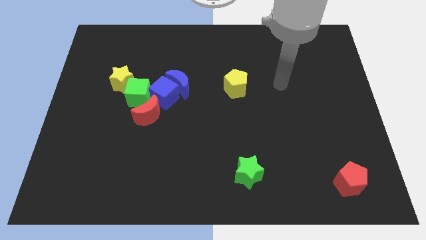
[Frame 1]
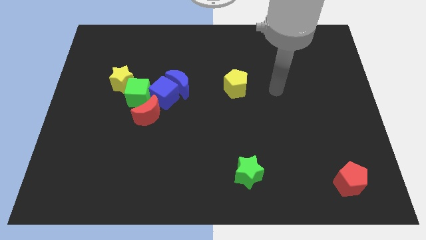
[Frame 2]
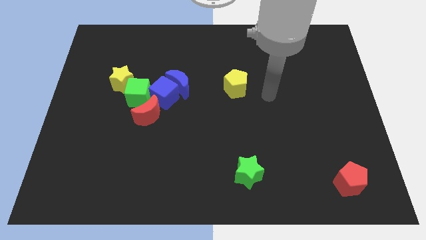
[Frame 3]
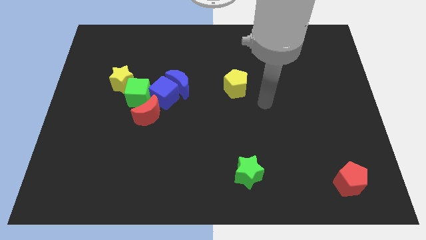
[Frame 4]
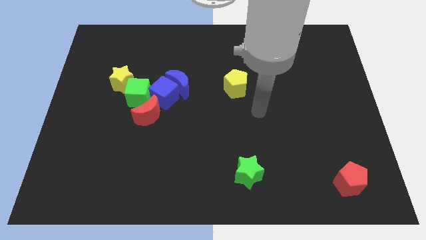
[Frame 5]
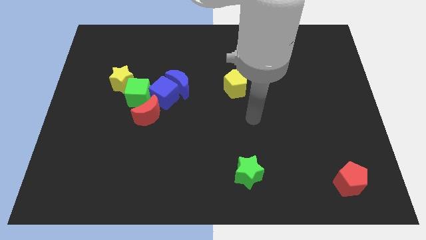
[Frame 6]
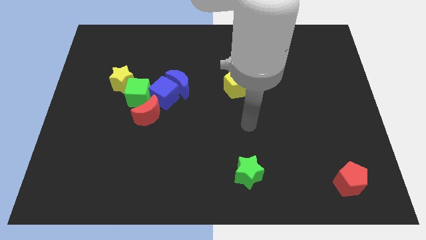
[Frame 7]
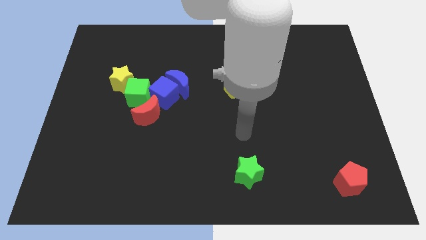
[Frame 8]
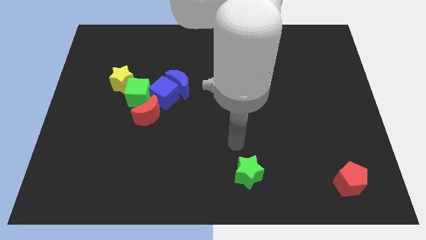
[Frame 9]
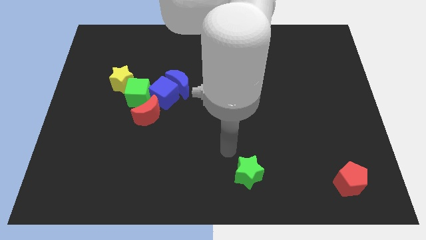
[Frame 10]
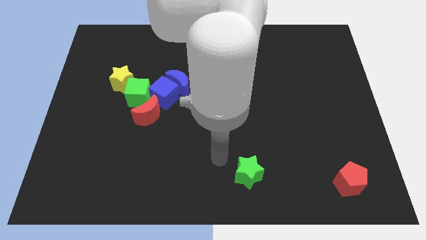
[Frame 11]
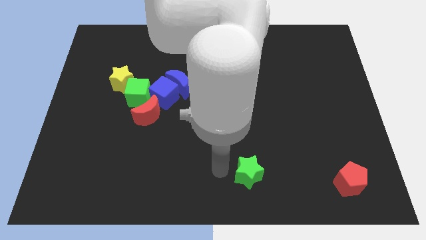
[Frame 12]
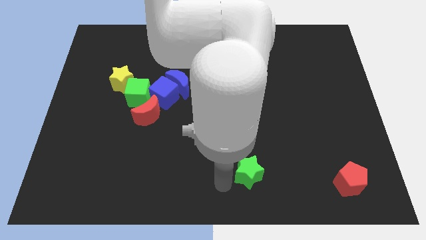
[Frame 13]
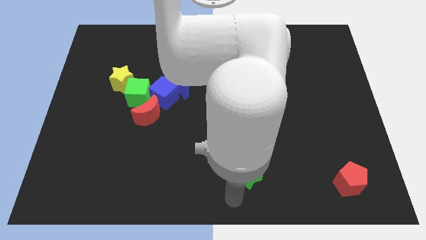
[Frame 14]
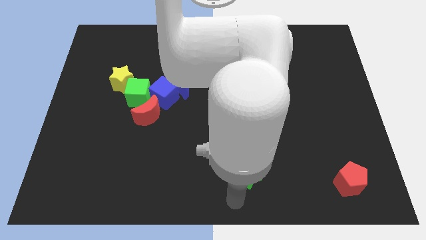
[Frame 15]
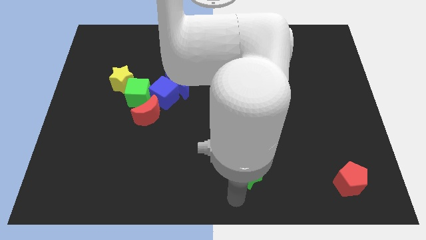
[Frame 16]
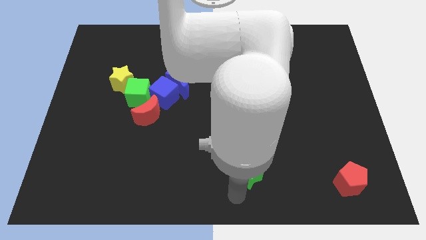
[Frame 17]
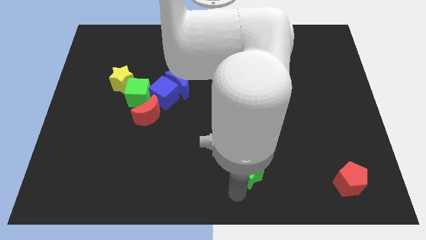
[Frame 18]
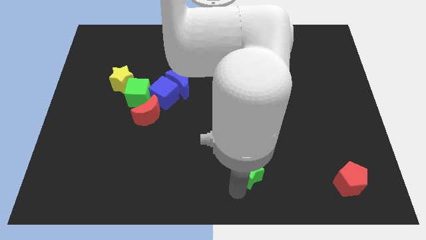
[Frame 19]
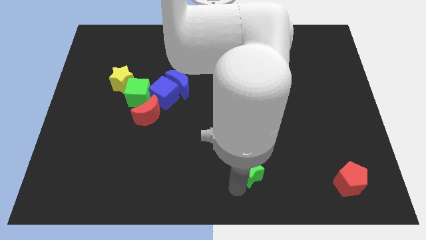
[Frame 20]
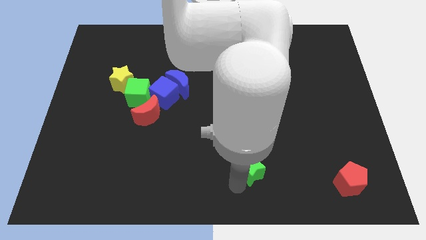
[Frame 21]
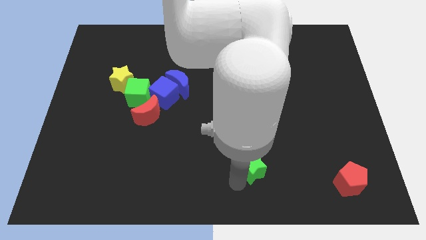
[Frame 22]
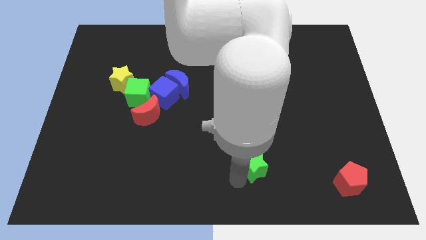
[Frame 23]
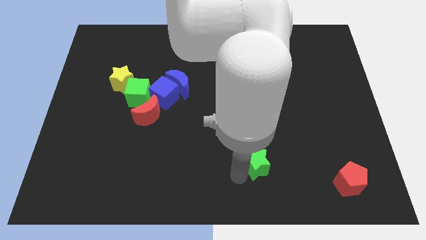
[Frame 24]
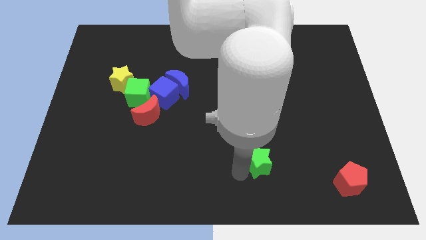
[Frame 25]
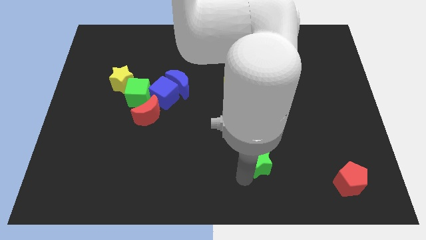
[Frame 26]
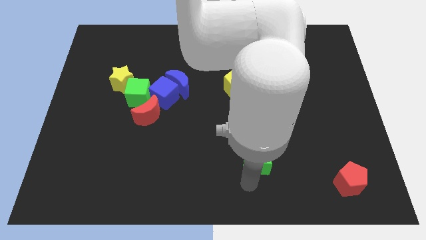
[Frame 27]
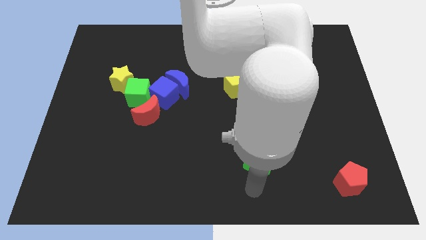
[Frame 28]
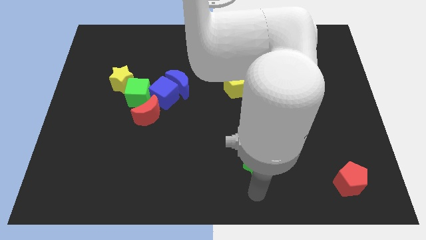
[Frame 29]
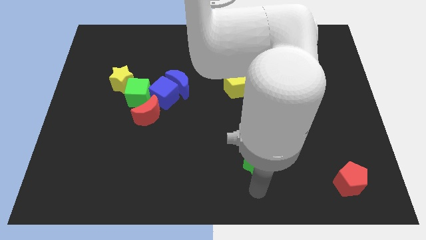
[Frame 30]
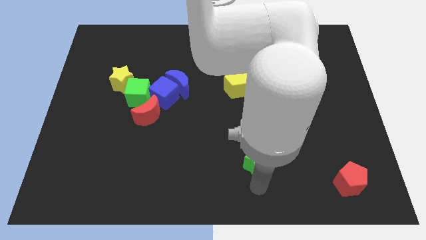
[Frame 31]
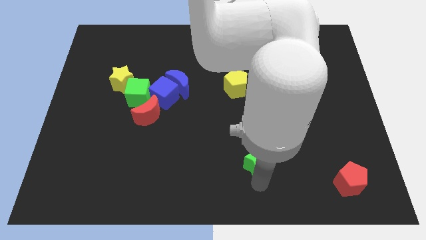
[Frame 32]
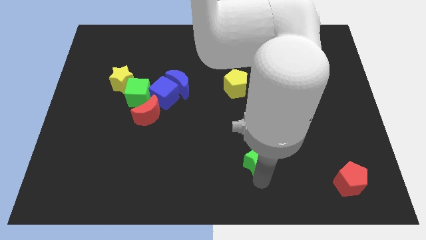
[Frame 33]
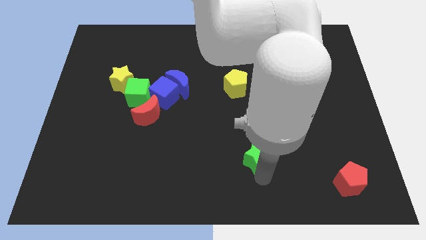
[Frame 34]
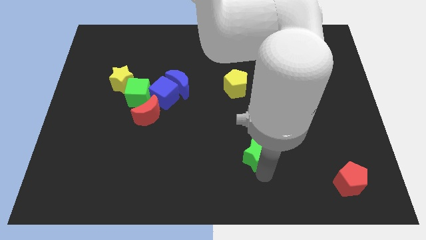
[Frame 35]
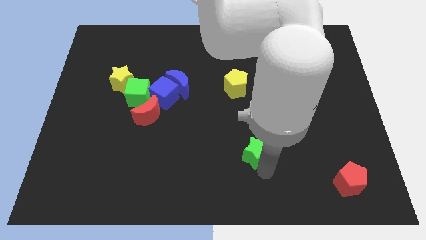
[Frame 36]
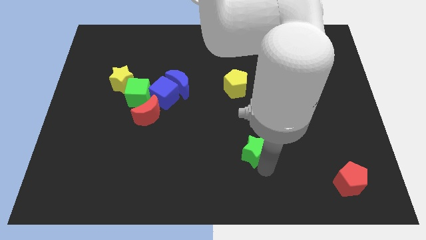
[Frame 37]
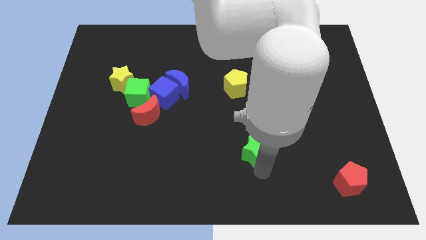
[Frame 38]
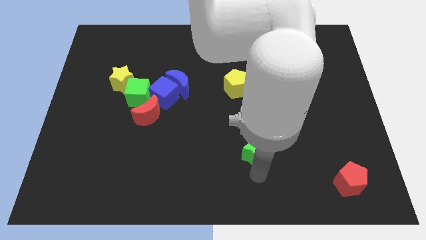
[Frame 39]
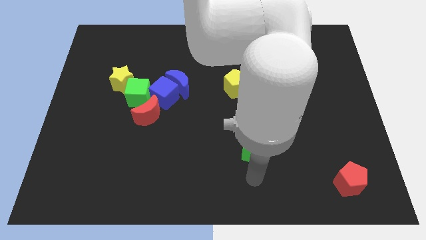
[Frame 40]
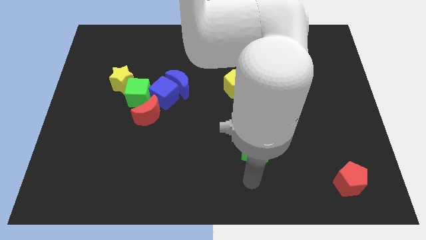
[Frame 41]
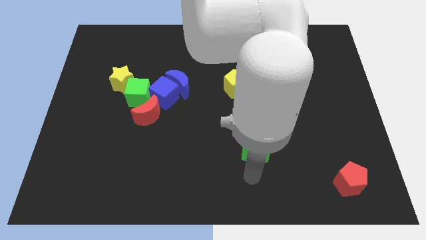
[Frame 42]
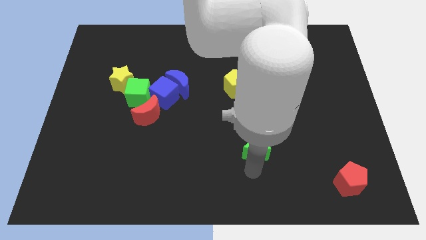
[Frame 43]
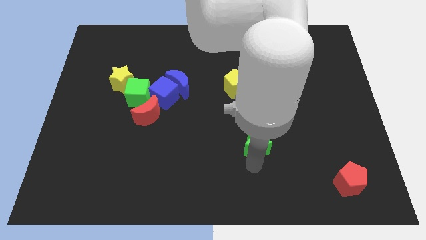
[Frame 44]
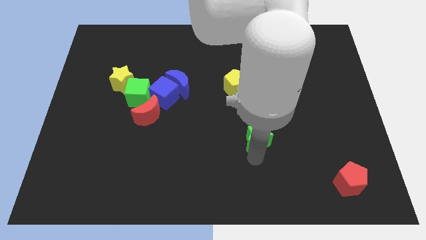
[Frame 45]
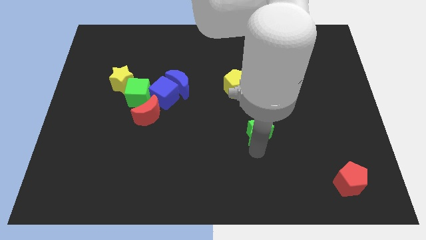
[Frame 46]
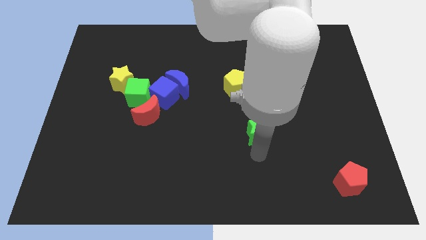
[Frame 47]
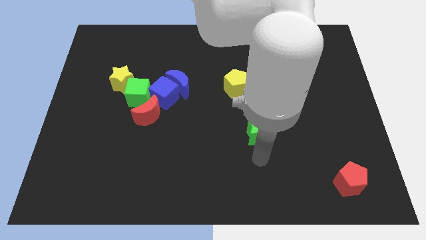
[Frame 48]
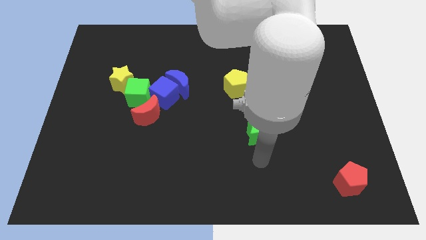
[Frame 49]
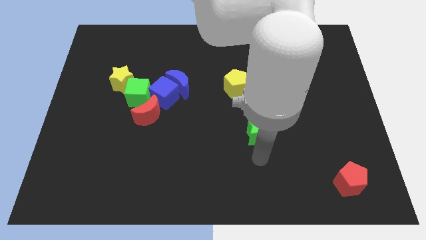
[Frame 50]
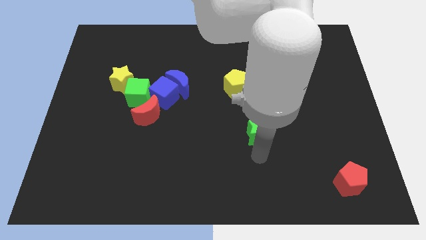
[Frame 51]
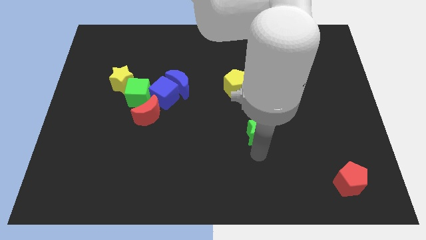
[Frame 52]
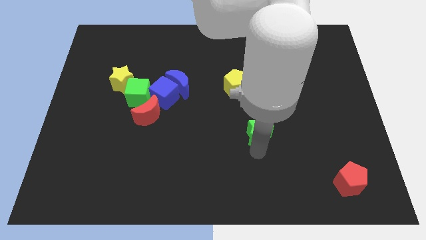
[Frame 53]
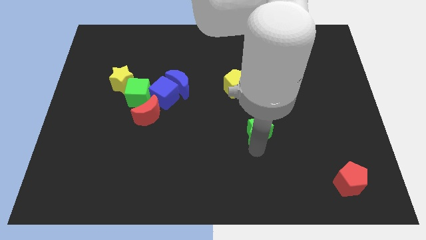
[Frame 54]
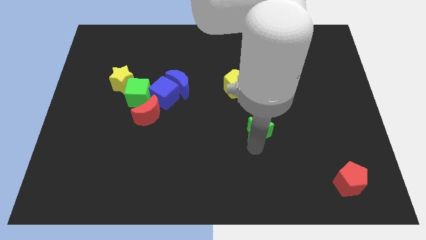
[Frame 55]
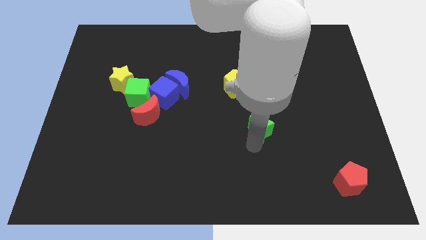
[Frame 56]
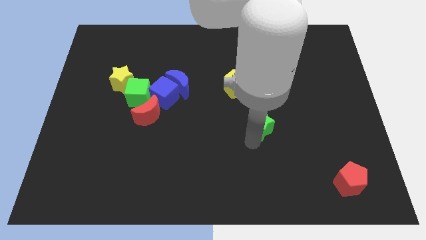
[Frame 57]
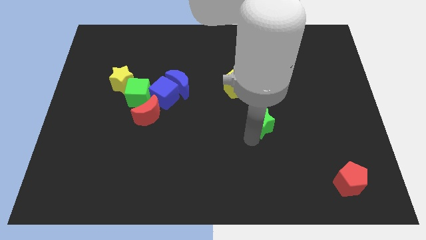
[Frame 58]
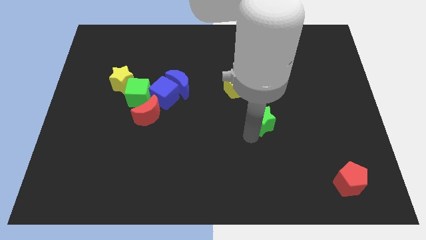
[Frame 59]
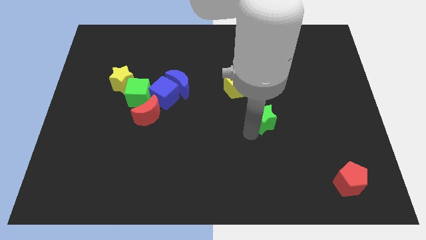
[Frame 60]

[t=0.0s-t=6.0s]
move the green star diagonally down and to the right of the yellow pentagon

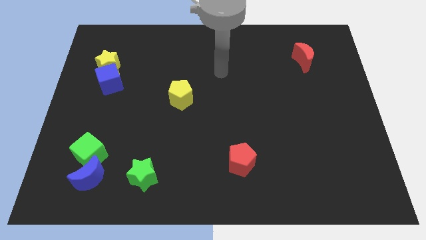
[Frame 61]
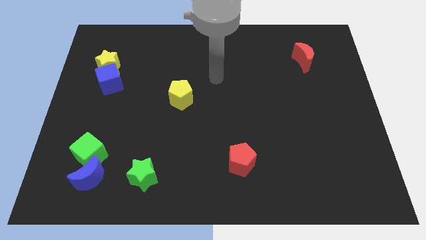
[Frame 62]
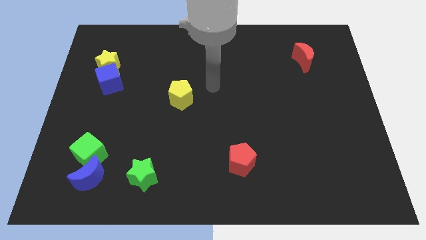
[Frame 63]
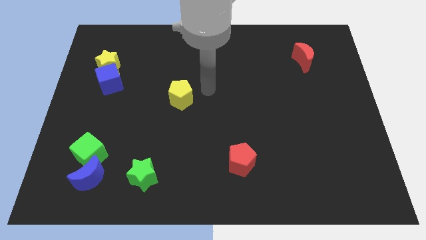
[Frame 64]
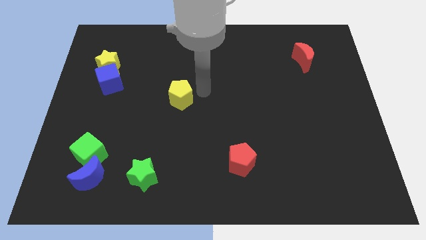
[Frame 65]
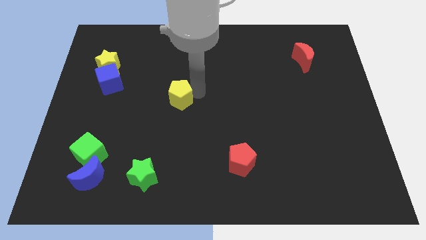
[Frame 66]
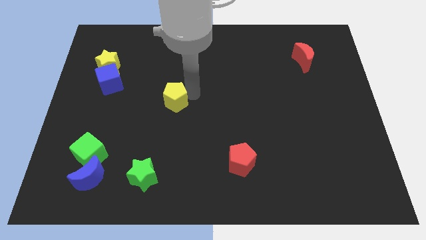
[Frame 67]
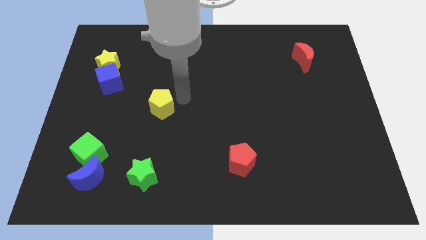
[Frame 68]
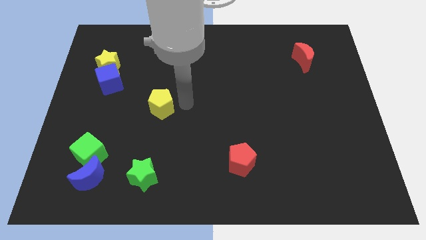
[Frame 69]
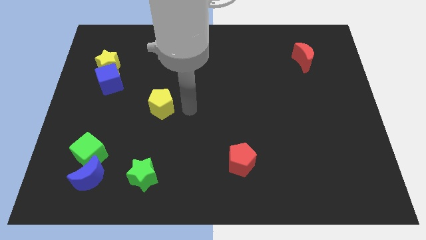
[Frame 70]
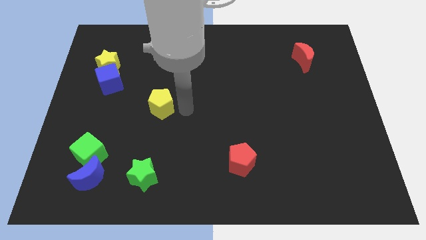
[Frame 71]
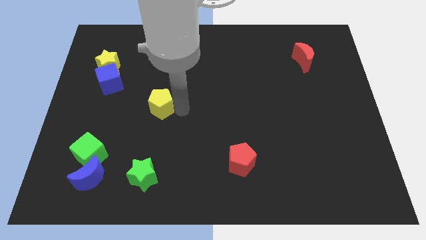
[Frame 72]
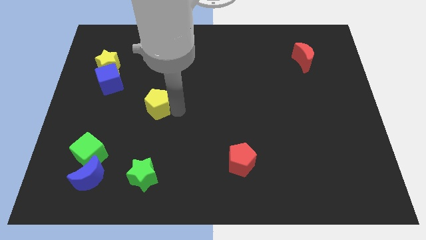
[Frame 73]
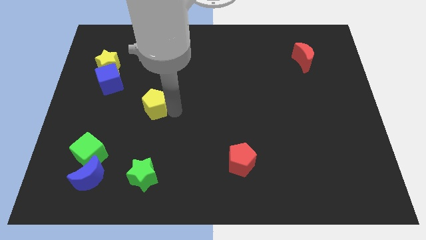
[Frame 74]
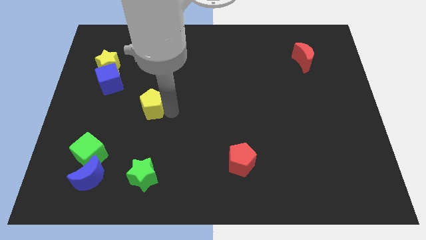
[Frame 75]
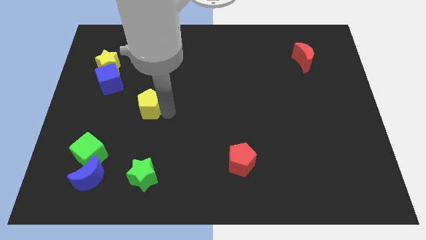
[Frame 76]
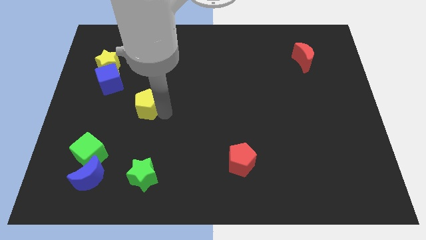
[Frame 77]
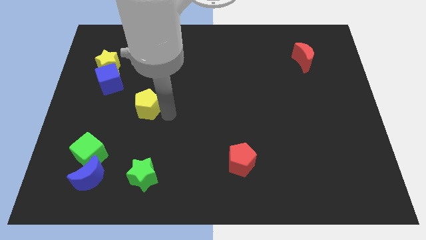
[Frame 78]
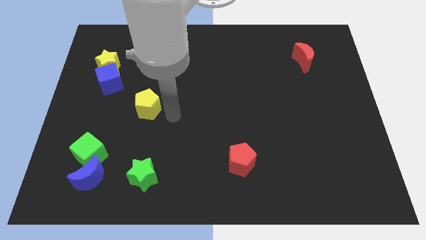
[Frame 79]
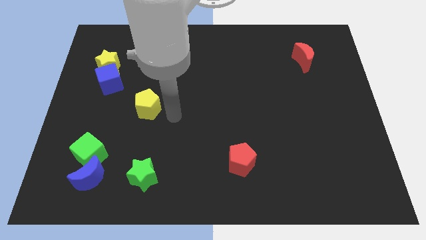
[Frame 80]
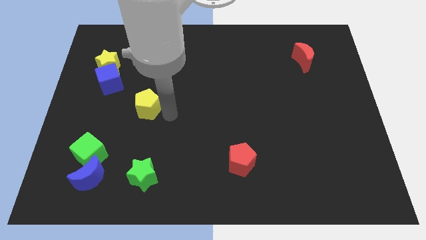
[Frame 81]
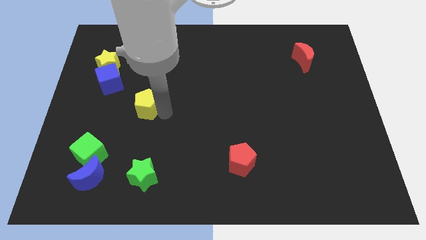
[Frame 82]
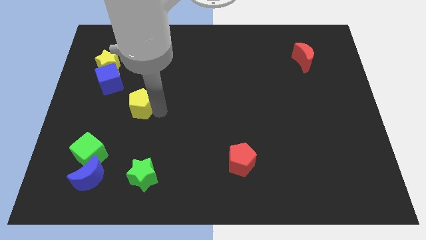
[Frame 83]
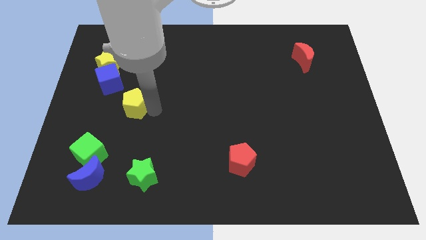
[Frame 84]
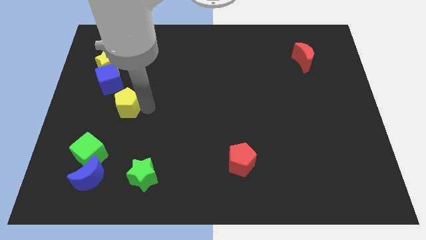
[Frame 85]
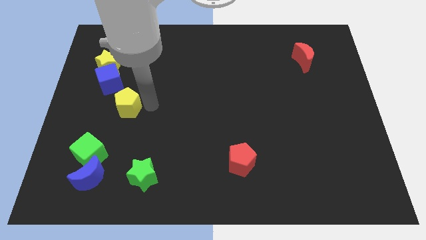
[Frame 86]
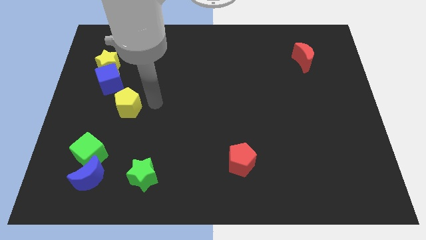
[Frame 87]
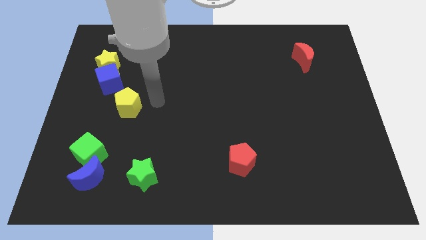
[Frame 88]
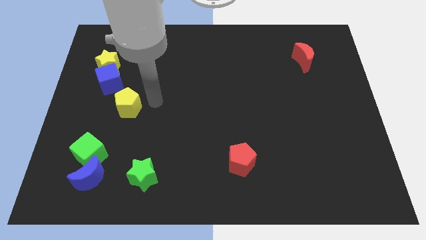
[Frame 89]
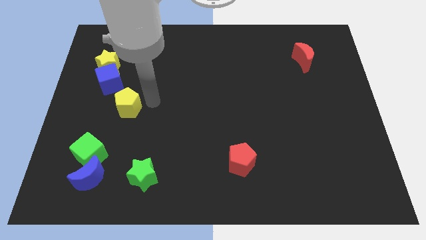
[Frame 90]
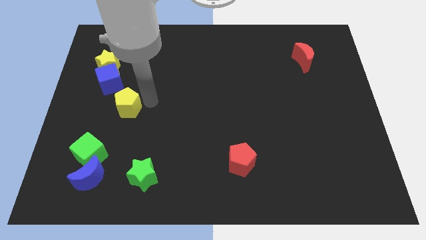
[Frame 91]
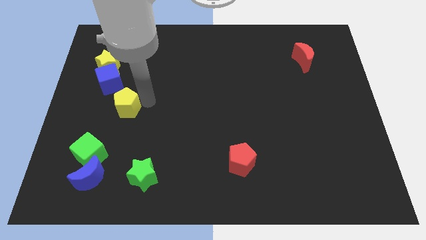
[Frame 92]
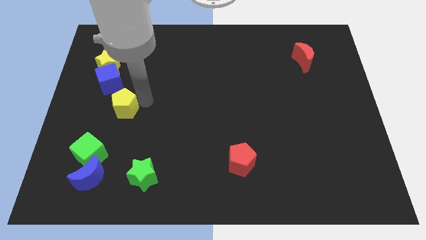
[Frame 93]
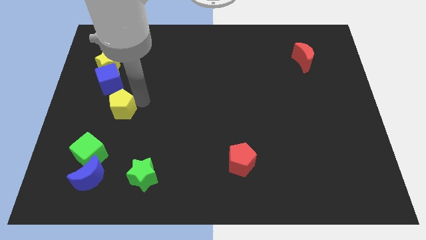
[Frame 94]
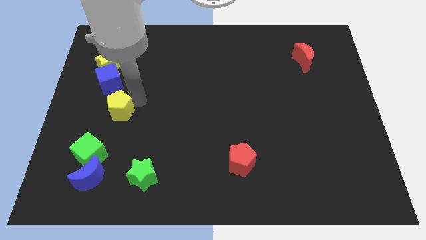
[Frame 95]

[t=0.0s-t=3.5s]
slide the yellow pentagon above the green cube
